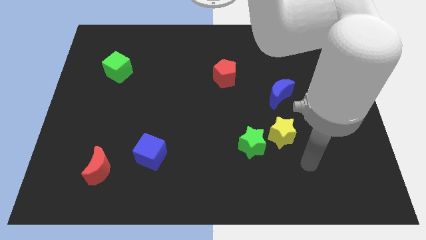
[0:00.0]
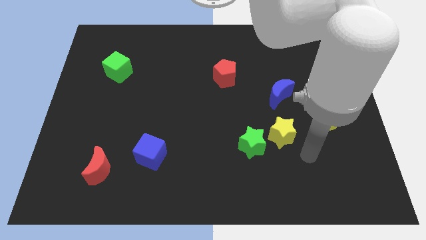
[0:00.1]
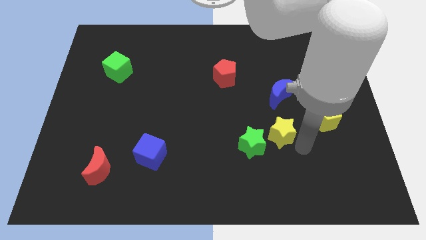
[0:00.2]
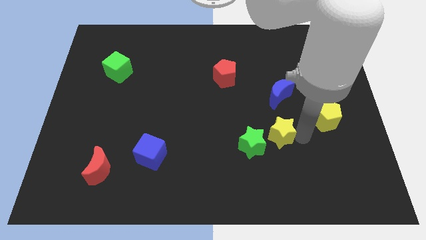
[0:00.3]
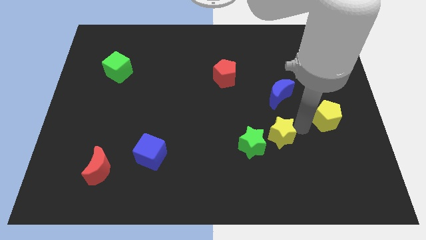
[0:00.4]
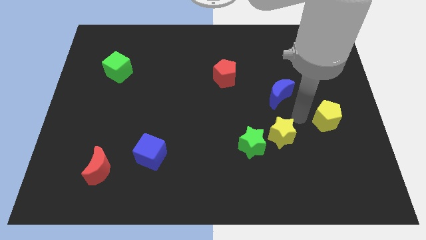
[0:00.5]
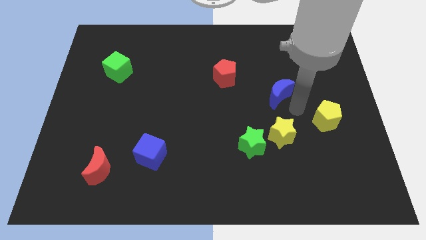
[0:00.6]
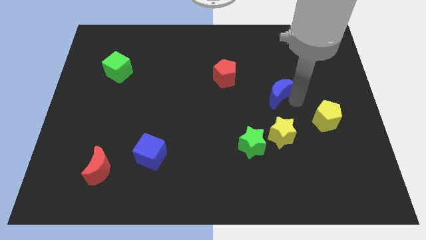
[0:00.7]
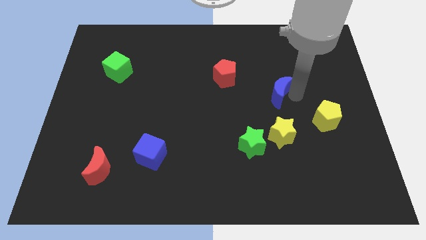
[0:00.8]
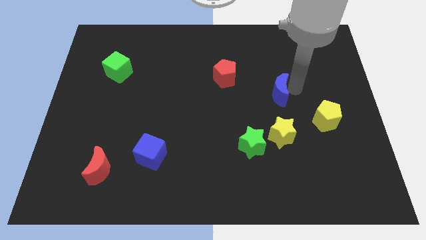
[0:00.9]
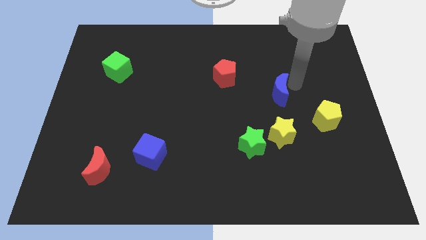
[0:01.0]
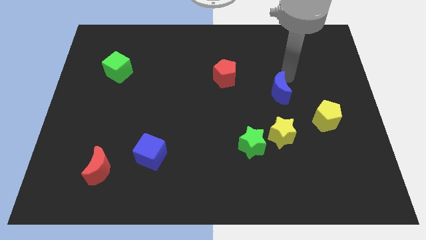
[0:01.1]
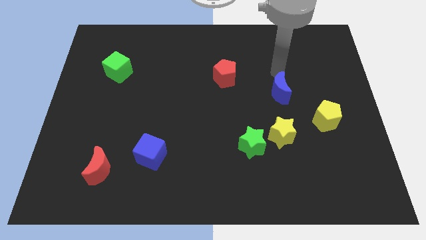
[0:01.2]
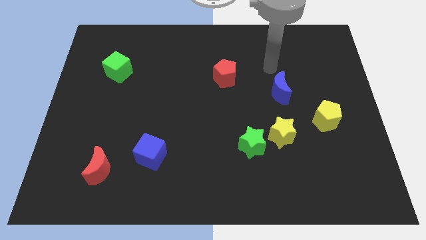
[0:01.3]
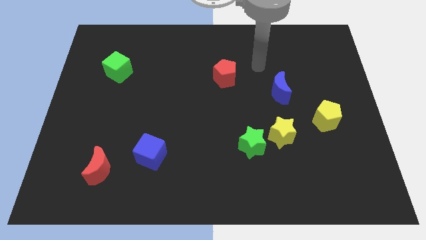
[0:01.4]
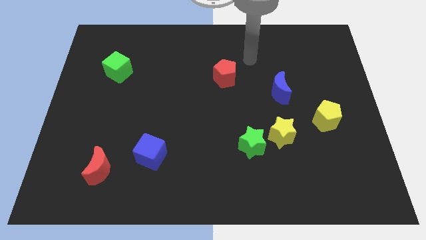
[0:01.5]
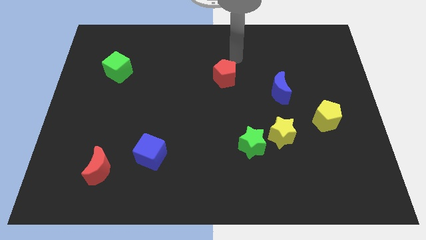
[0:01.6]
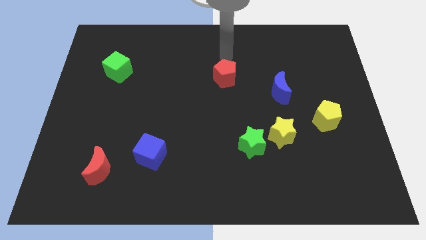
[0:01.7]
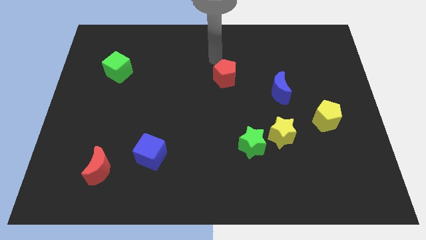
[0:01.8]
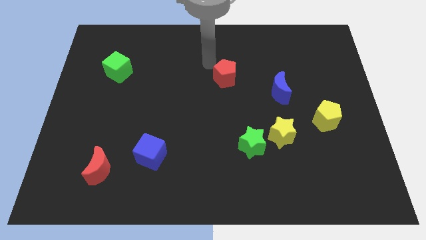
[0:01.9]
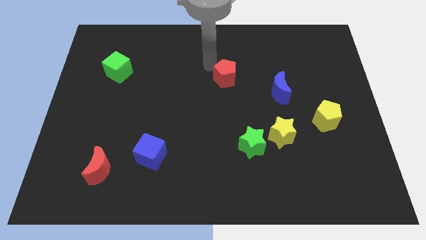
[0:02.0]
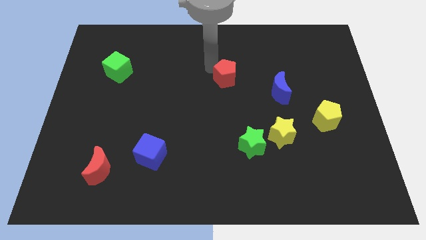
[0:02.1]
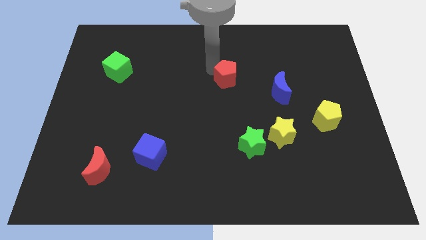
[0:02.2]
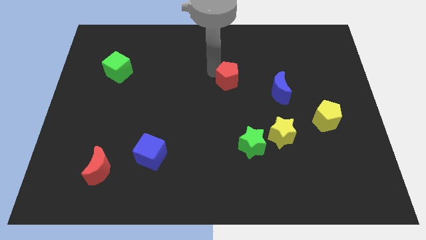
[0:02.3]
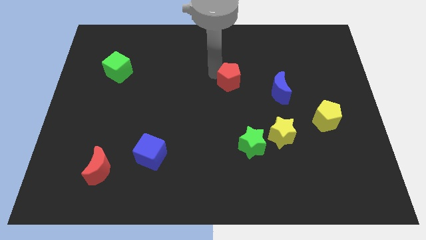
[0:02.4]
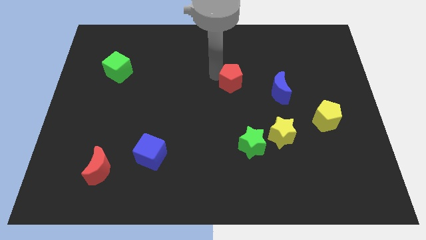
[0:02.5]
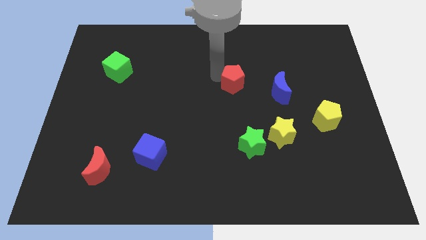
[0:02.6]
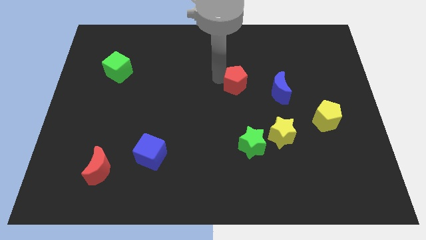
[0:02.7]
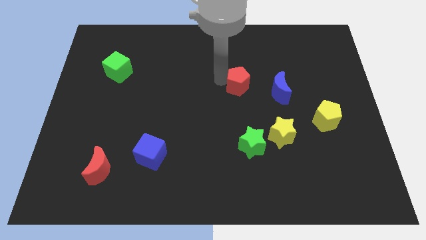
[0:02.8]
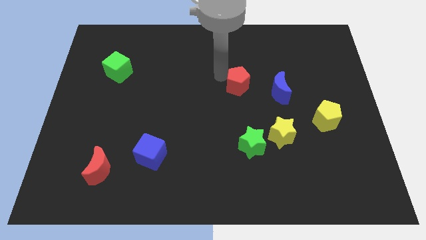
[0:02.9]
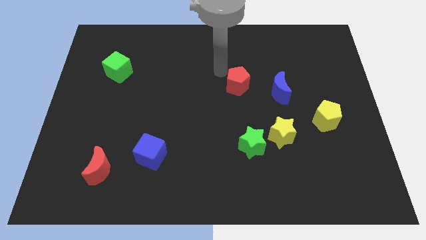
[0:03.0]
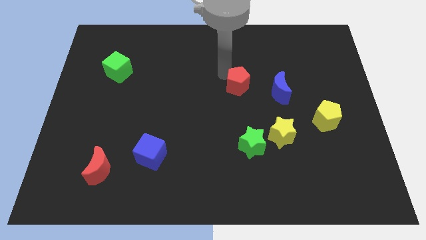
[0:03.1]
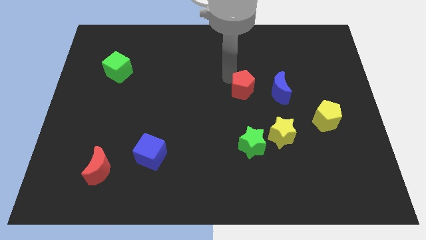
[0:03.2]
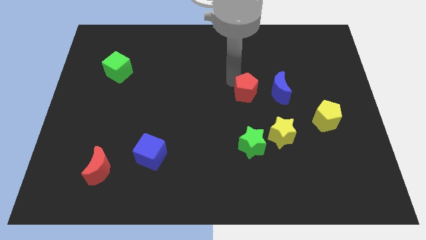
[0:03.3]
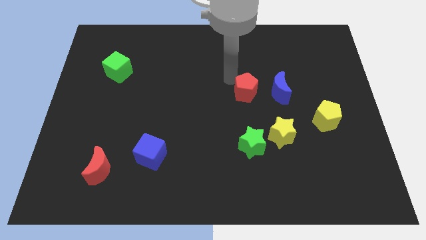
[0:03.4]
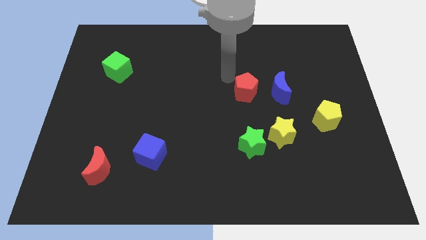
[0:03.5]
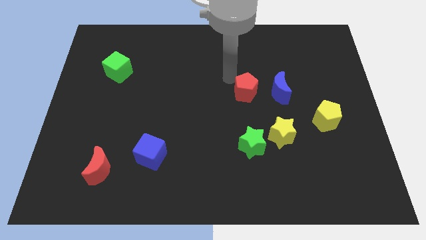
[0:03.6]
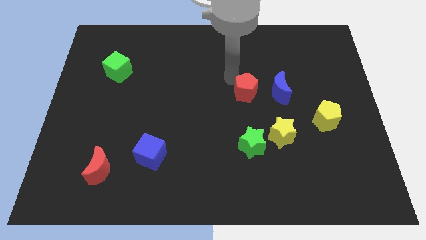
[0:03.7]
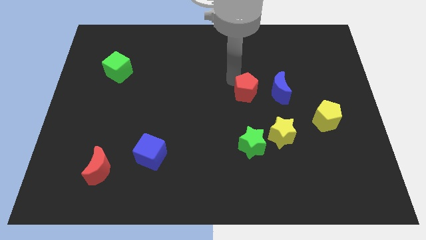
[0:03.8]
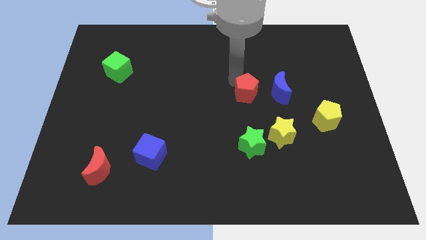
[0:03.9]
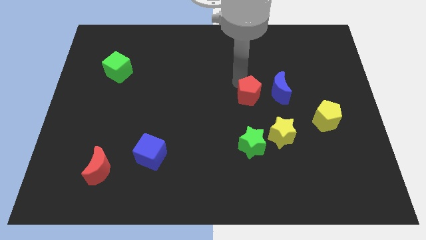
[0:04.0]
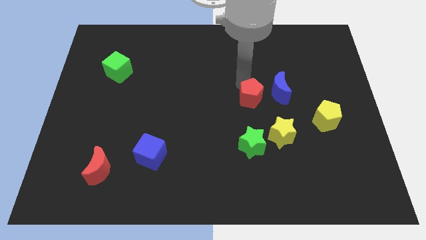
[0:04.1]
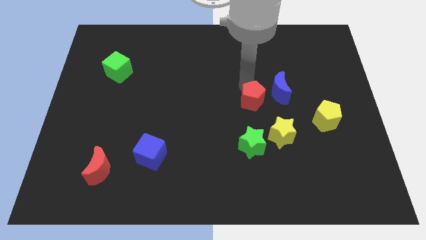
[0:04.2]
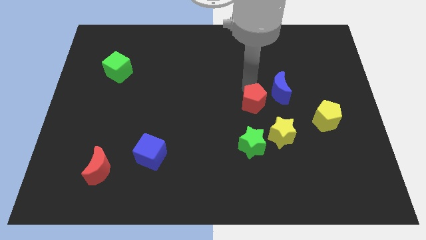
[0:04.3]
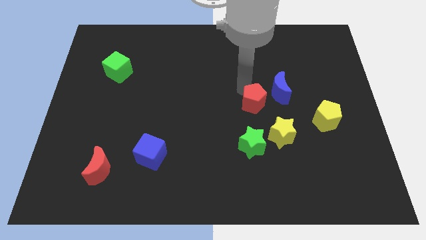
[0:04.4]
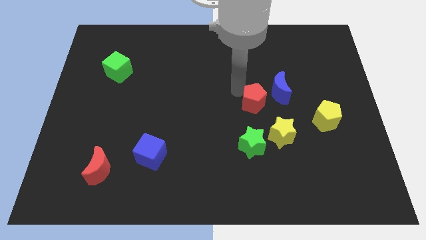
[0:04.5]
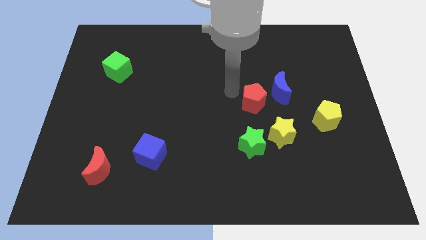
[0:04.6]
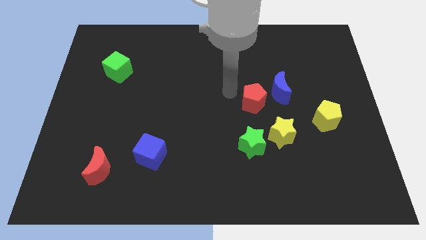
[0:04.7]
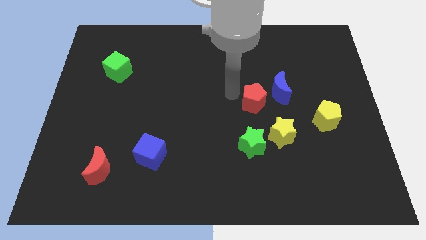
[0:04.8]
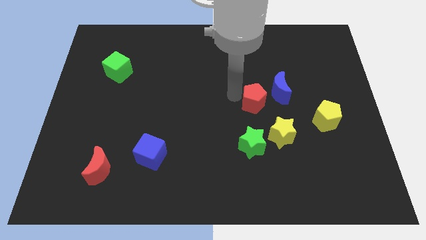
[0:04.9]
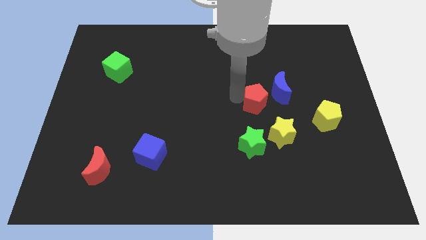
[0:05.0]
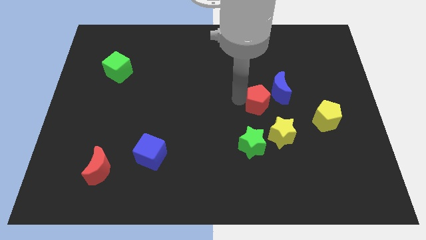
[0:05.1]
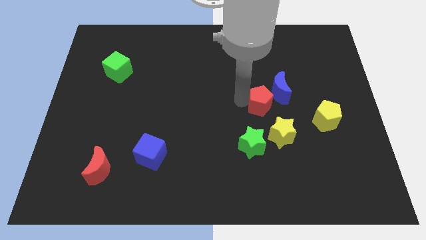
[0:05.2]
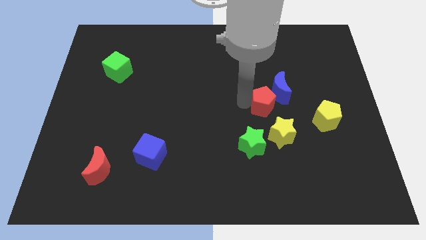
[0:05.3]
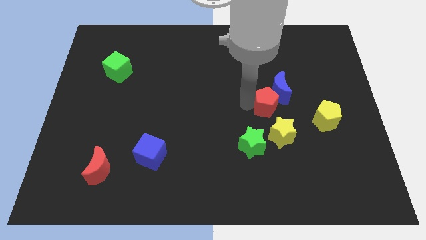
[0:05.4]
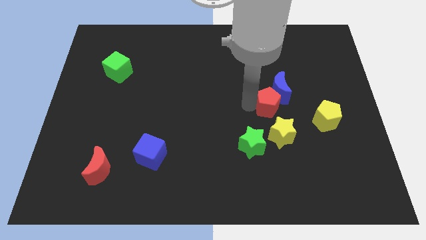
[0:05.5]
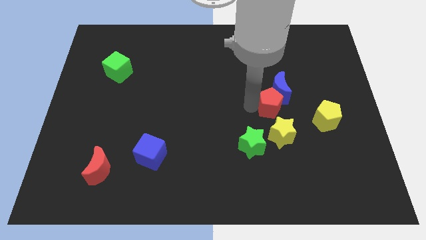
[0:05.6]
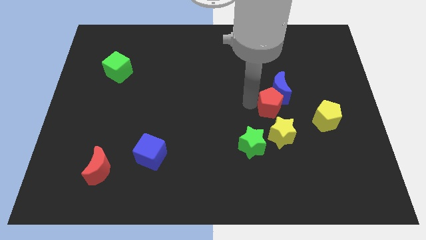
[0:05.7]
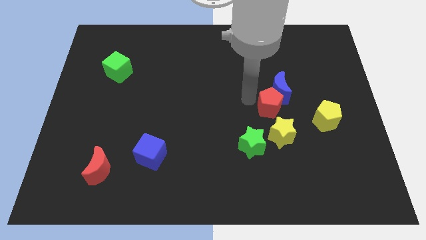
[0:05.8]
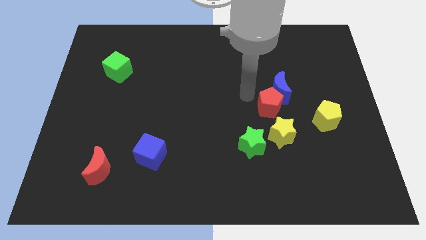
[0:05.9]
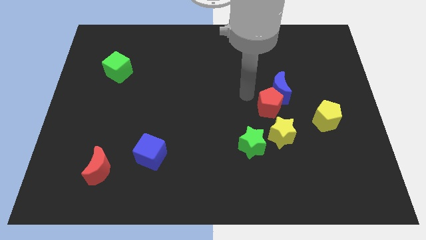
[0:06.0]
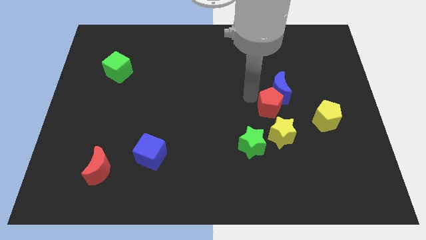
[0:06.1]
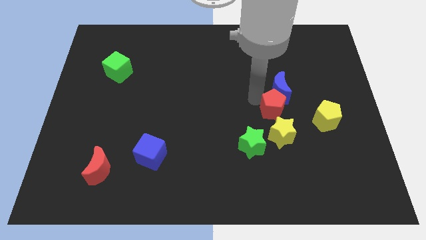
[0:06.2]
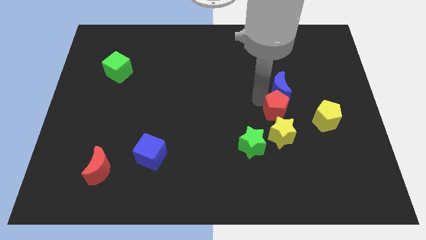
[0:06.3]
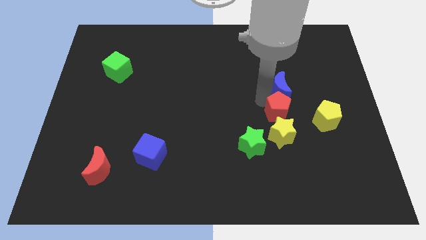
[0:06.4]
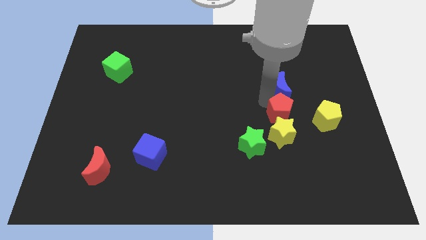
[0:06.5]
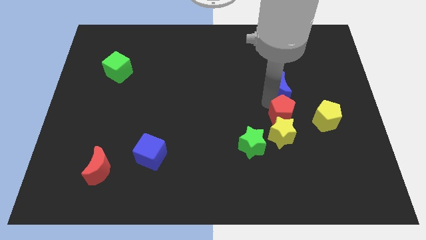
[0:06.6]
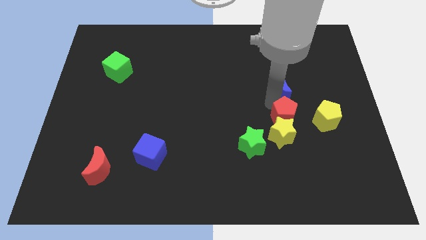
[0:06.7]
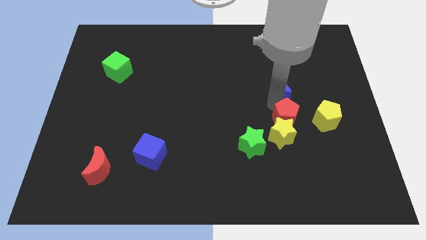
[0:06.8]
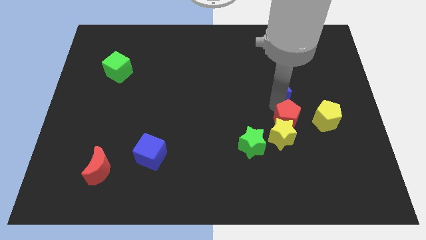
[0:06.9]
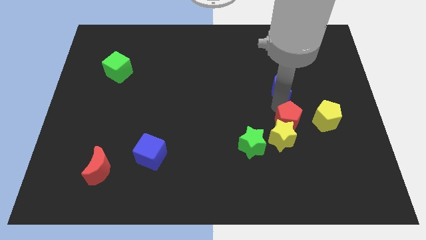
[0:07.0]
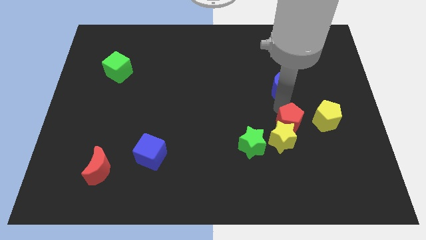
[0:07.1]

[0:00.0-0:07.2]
push the red pentagon diagonally downwards and to the right

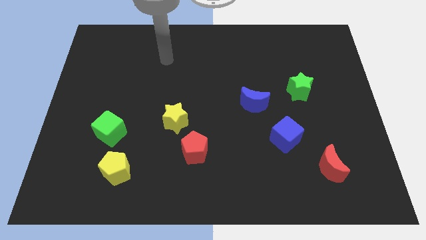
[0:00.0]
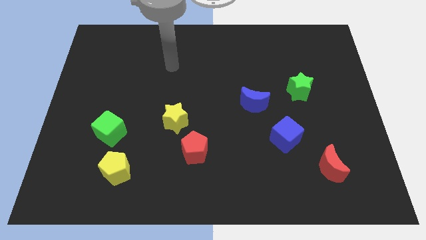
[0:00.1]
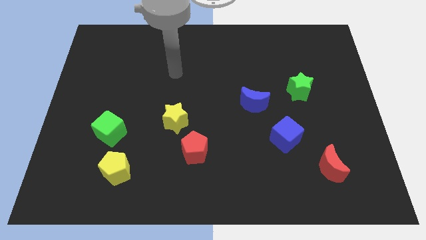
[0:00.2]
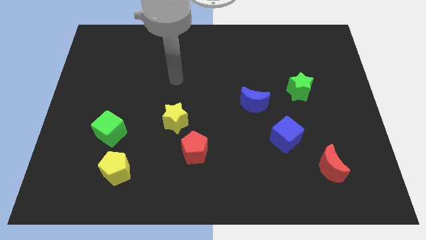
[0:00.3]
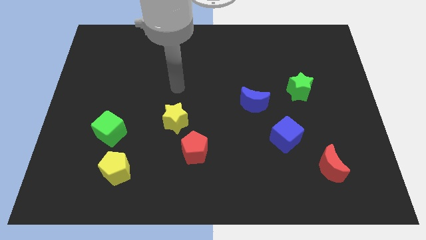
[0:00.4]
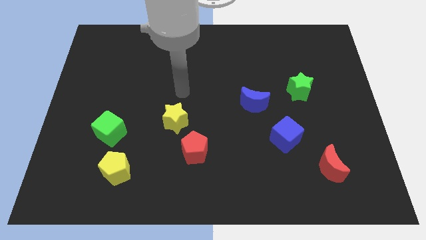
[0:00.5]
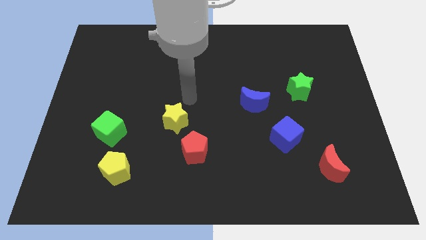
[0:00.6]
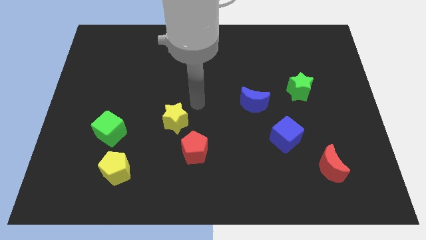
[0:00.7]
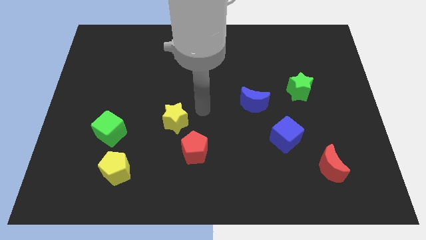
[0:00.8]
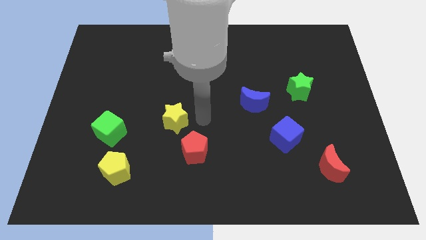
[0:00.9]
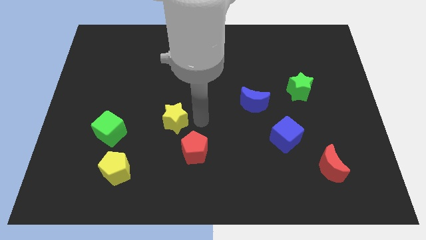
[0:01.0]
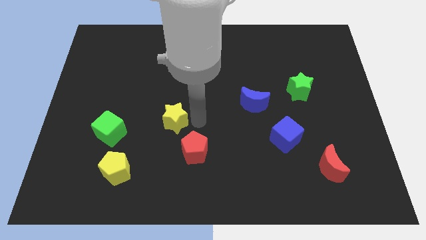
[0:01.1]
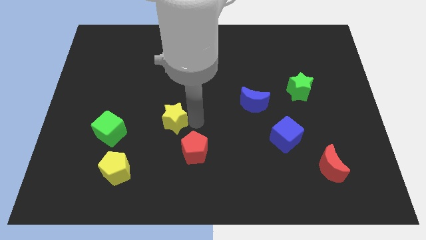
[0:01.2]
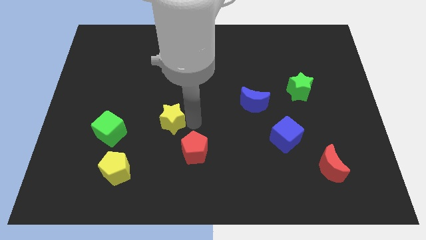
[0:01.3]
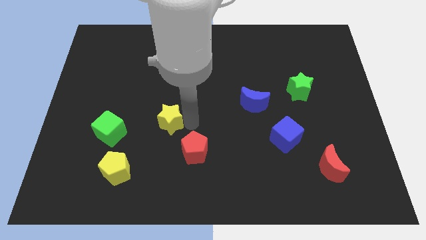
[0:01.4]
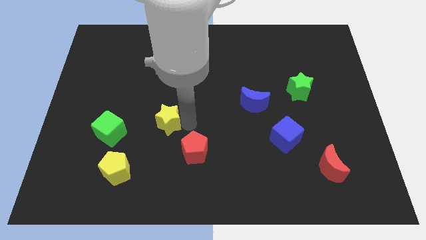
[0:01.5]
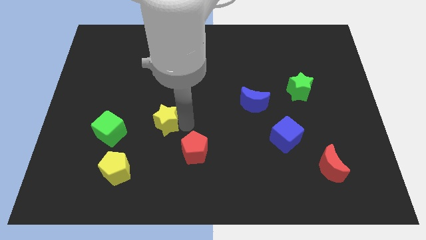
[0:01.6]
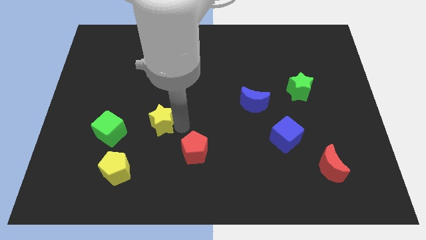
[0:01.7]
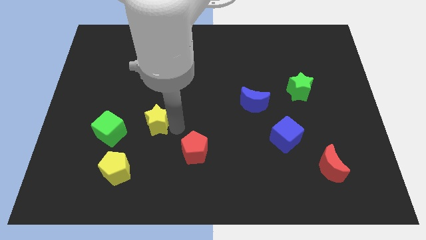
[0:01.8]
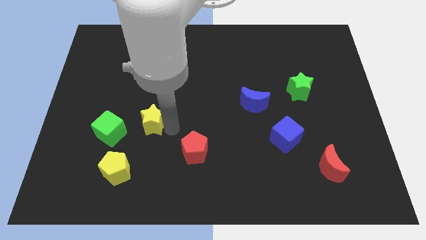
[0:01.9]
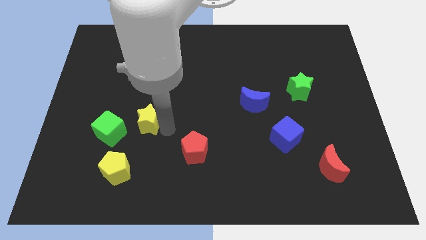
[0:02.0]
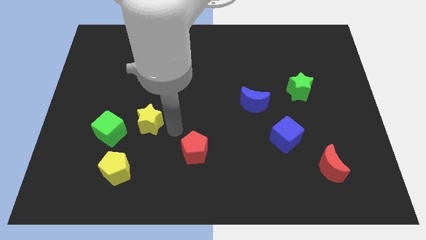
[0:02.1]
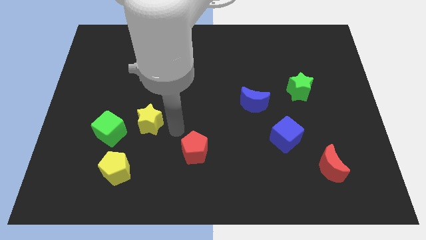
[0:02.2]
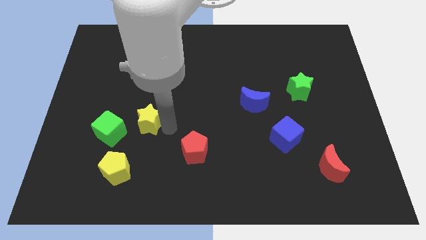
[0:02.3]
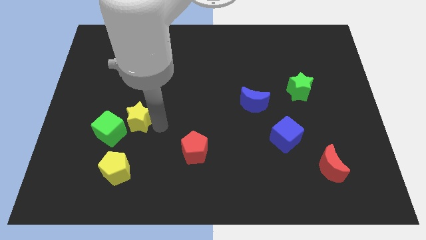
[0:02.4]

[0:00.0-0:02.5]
slightly move the yellow star left
